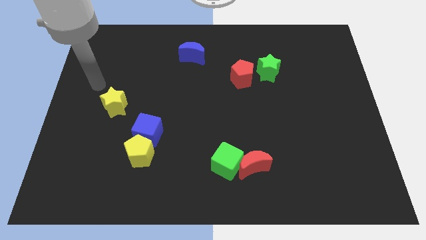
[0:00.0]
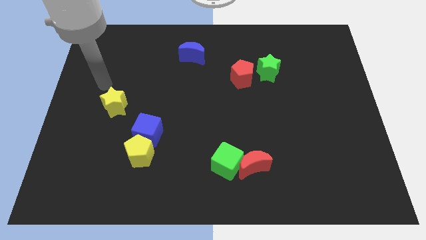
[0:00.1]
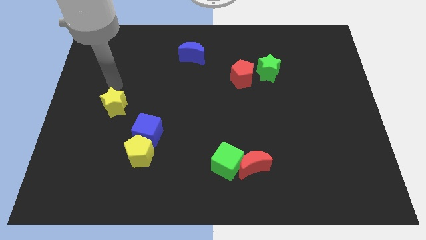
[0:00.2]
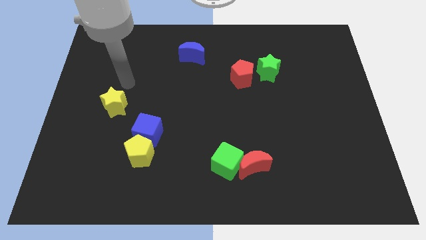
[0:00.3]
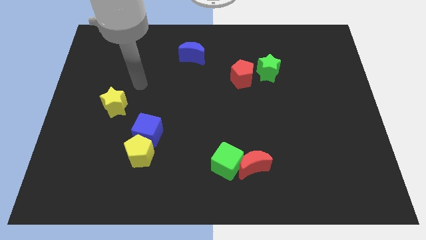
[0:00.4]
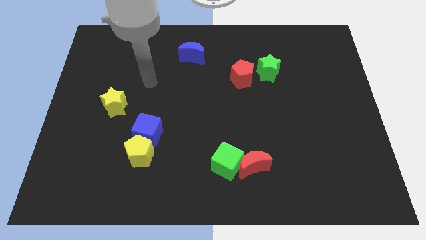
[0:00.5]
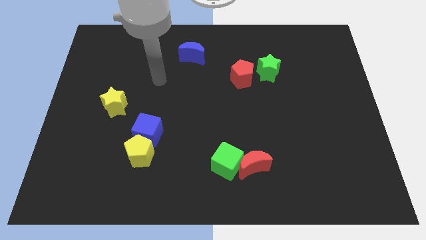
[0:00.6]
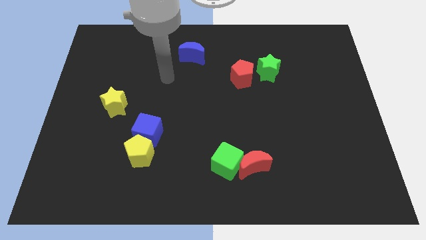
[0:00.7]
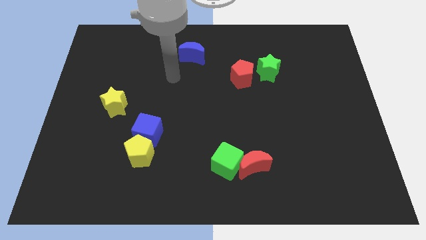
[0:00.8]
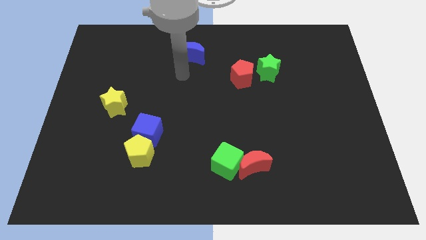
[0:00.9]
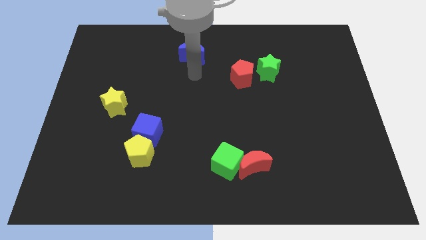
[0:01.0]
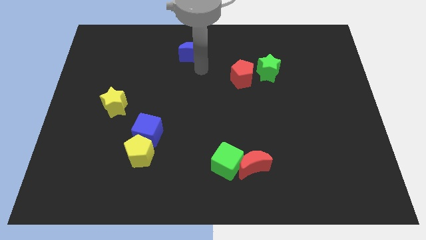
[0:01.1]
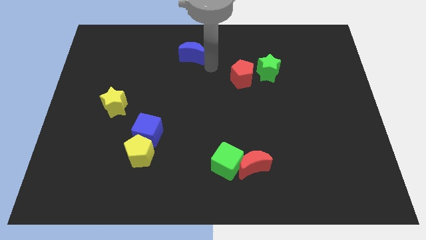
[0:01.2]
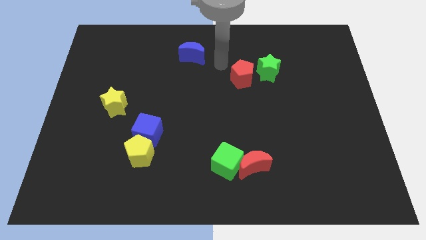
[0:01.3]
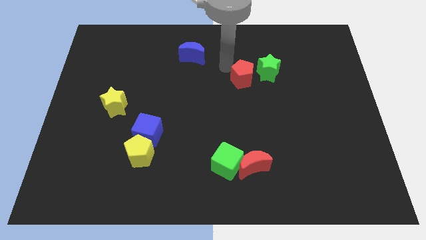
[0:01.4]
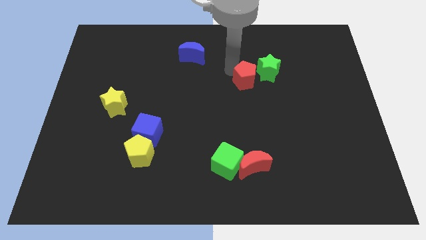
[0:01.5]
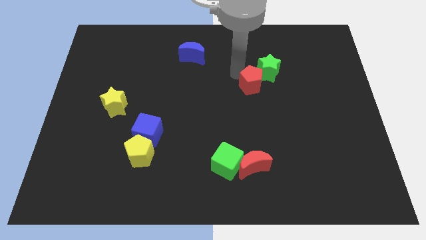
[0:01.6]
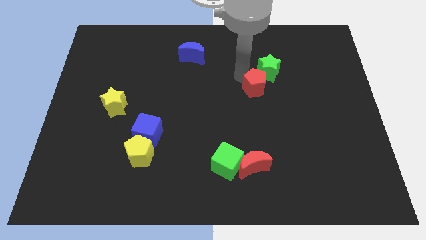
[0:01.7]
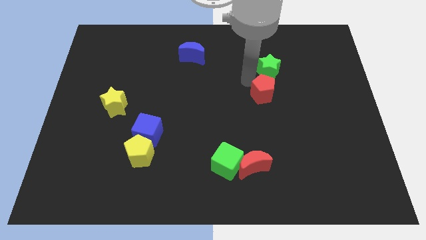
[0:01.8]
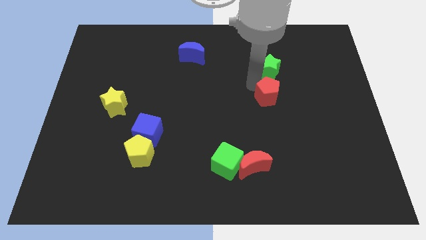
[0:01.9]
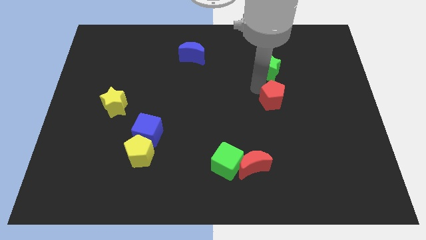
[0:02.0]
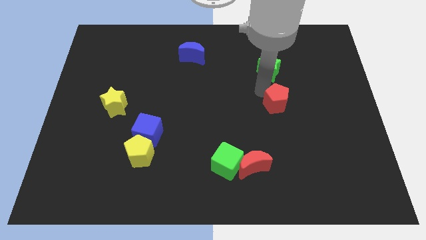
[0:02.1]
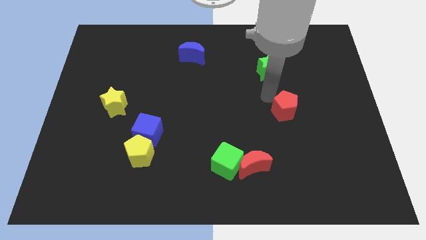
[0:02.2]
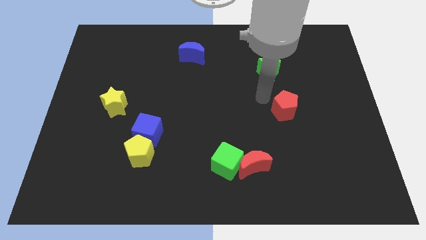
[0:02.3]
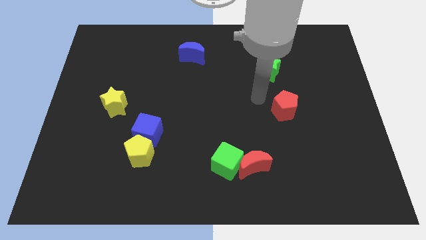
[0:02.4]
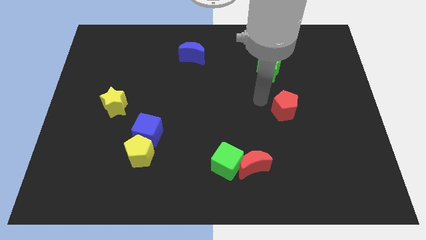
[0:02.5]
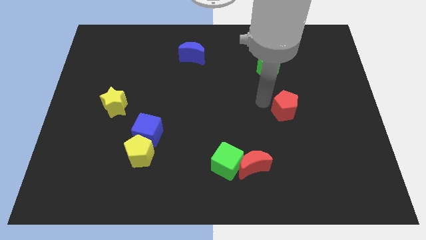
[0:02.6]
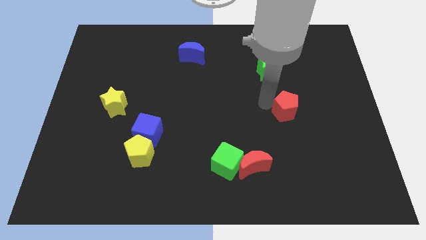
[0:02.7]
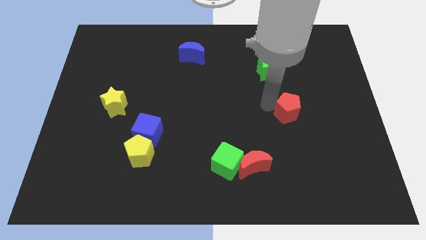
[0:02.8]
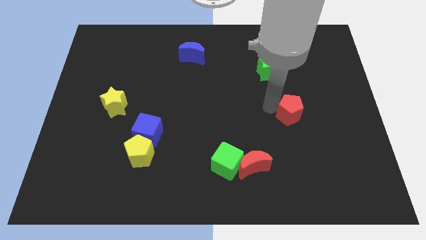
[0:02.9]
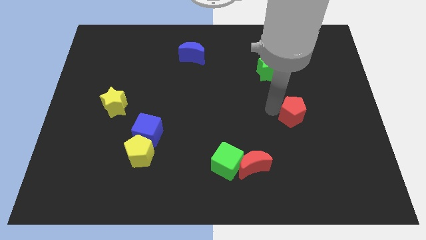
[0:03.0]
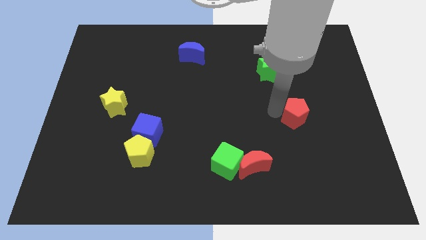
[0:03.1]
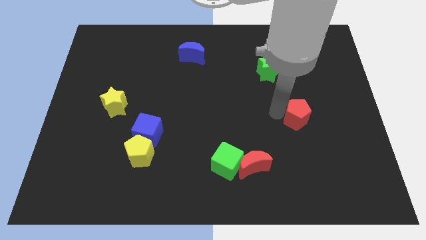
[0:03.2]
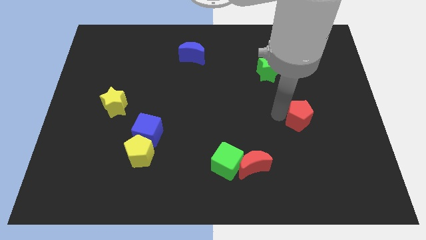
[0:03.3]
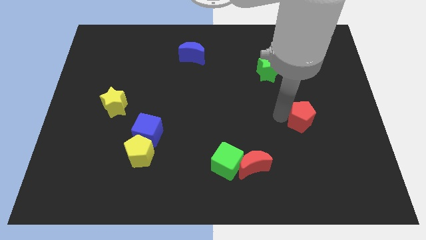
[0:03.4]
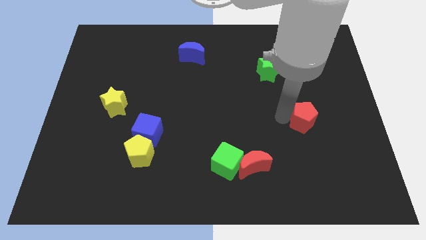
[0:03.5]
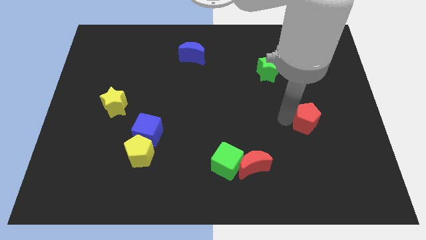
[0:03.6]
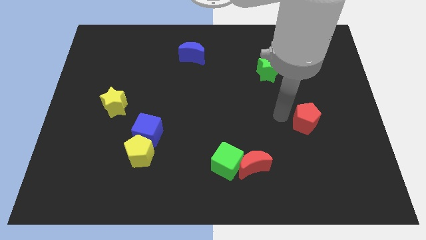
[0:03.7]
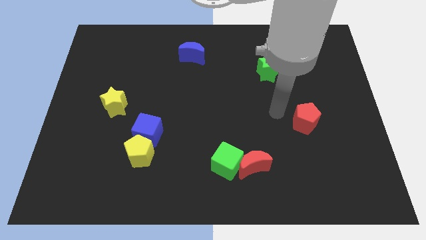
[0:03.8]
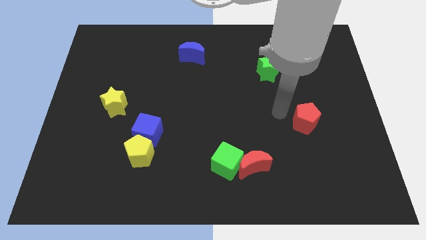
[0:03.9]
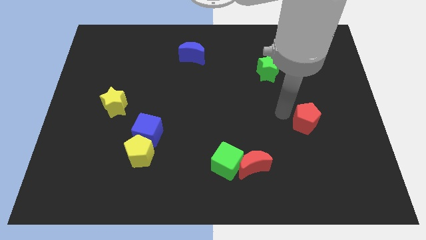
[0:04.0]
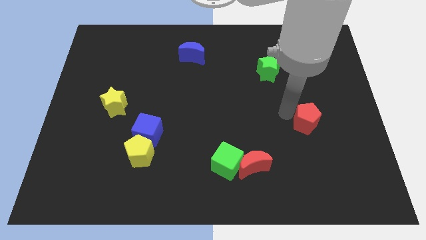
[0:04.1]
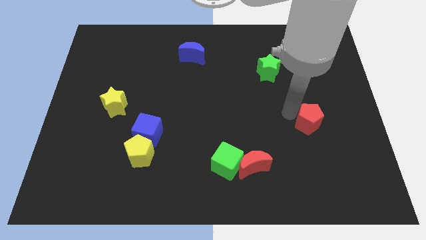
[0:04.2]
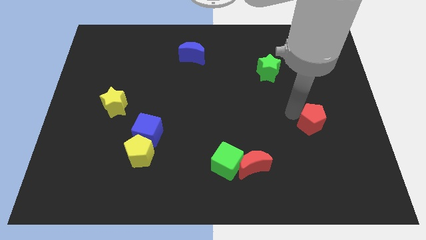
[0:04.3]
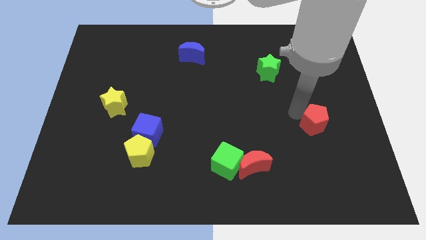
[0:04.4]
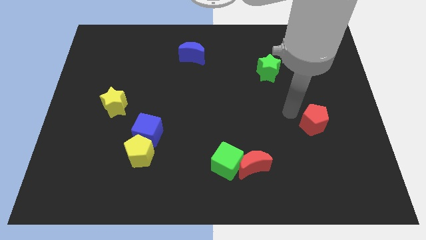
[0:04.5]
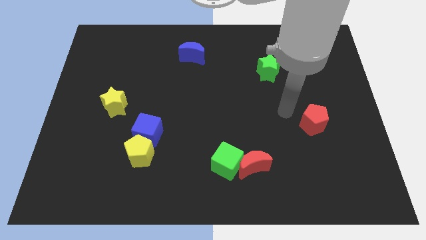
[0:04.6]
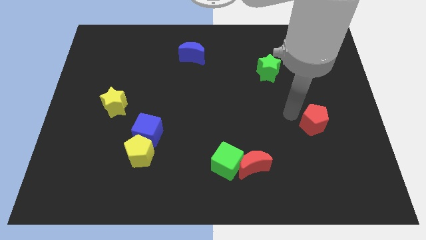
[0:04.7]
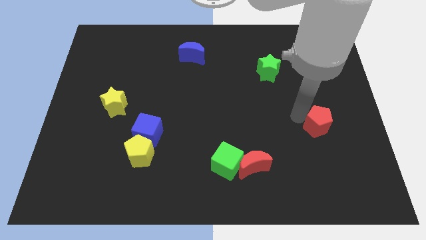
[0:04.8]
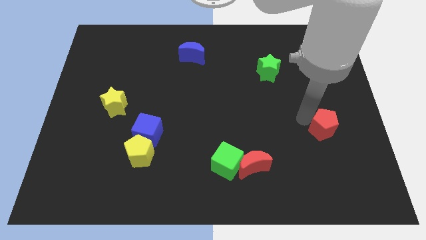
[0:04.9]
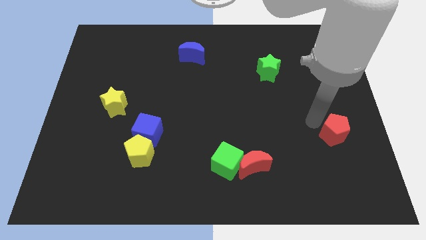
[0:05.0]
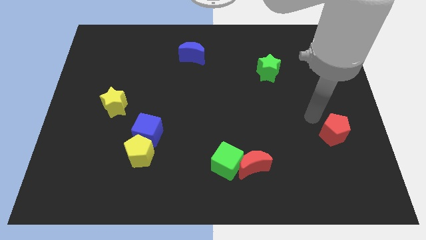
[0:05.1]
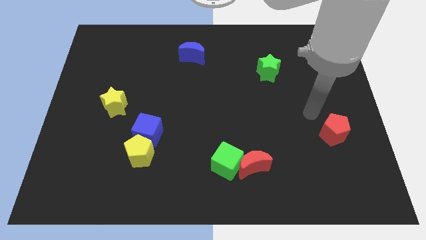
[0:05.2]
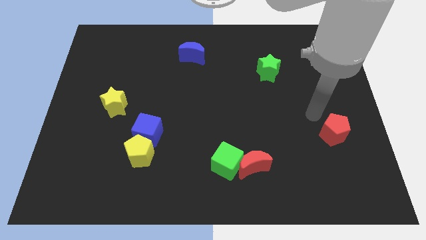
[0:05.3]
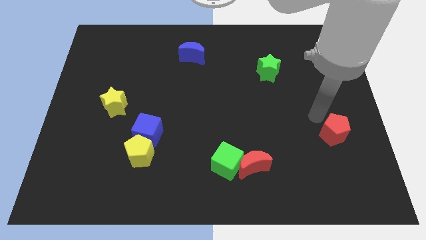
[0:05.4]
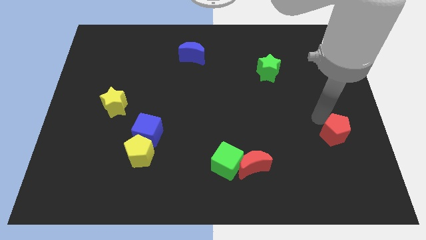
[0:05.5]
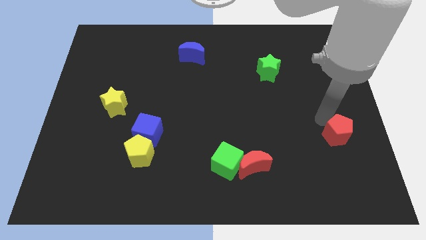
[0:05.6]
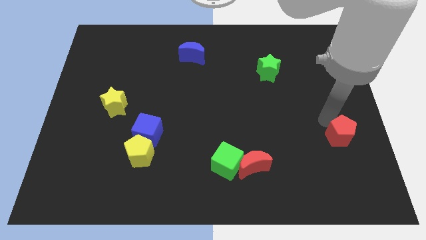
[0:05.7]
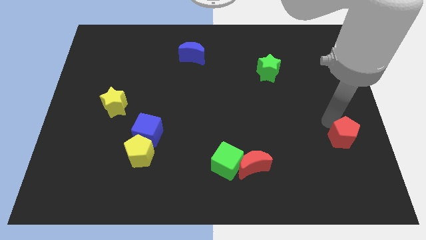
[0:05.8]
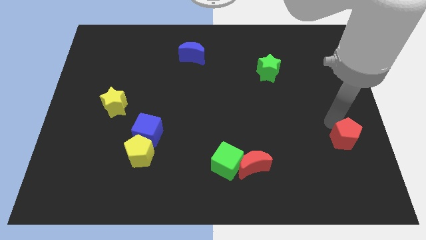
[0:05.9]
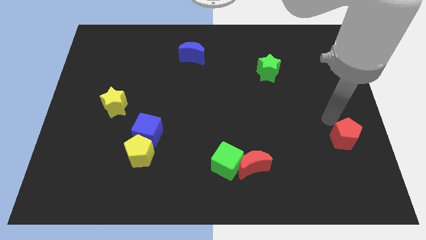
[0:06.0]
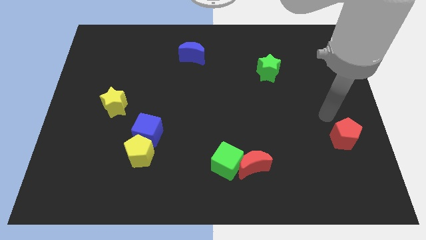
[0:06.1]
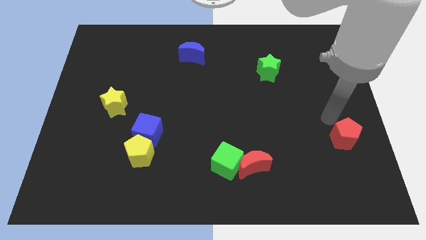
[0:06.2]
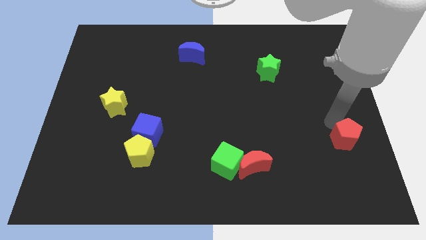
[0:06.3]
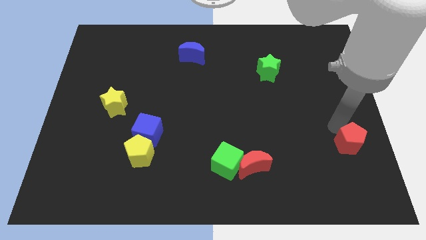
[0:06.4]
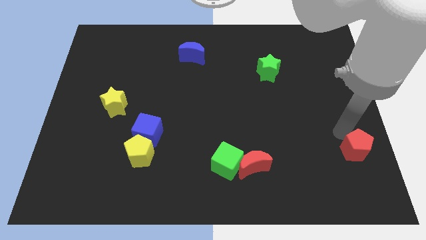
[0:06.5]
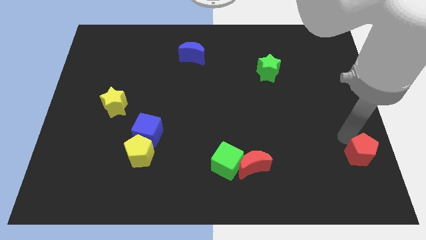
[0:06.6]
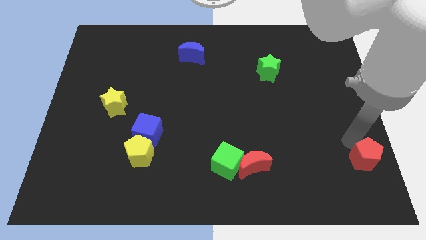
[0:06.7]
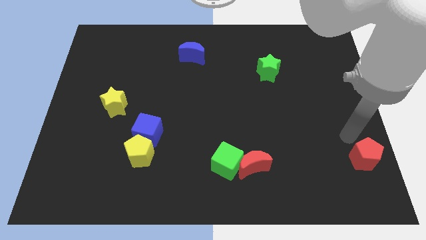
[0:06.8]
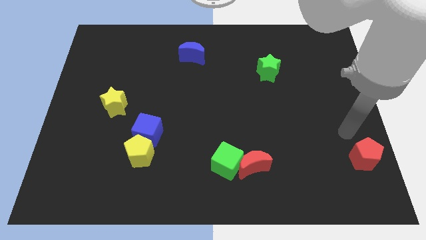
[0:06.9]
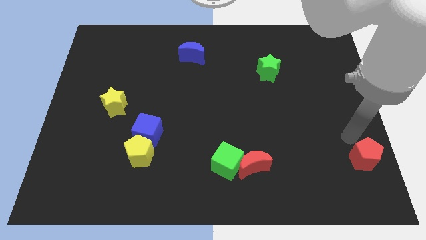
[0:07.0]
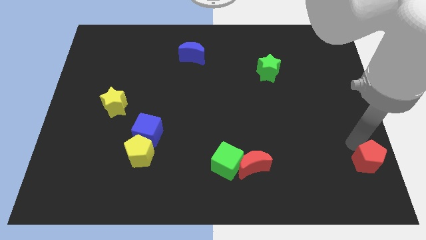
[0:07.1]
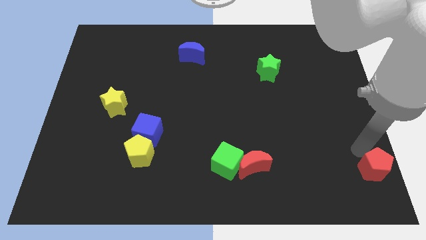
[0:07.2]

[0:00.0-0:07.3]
move the red pentagon to the bottom right corner
